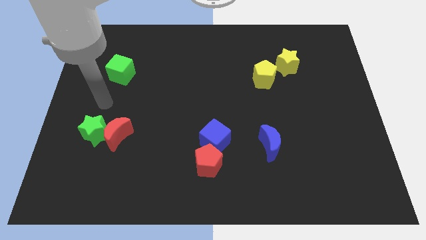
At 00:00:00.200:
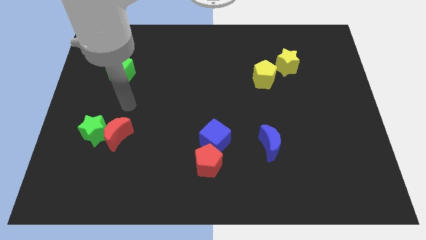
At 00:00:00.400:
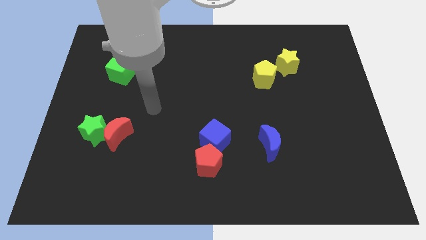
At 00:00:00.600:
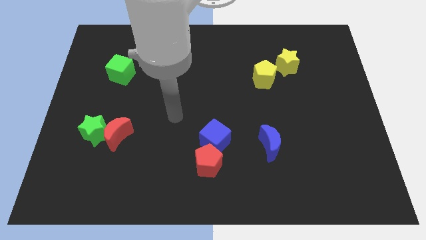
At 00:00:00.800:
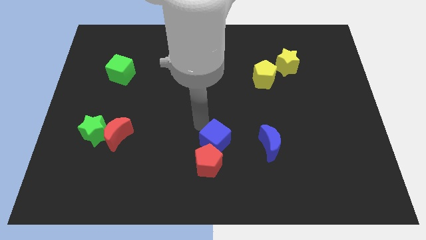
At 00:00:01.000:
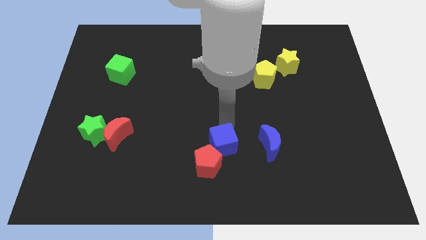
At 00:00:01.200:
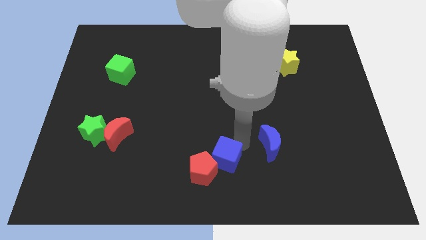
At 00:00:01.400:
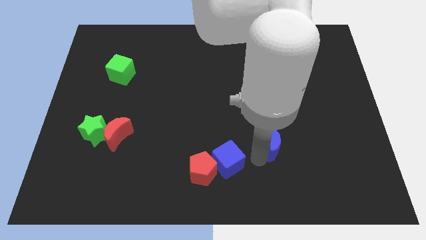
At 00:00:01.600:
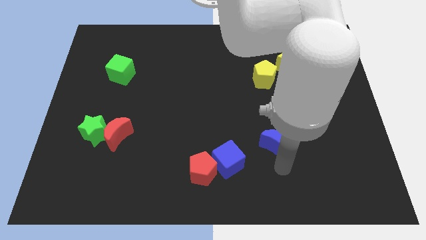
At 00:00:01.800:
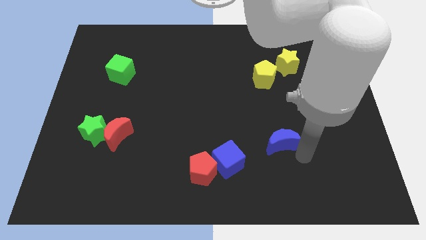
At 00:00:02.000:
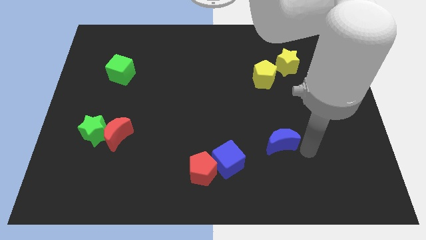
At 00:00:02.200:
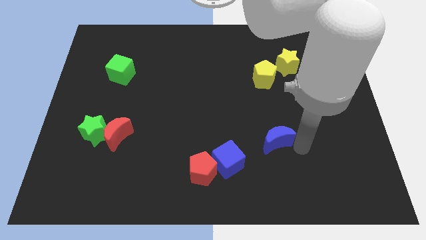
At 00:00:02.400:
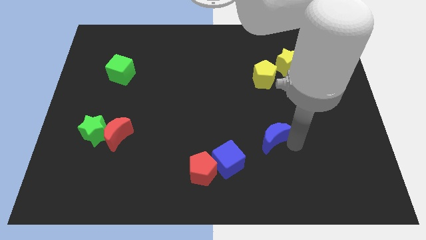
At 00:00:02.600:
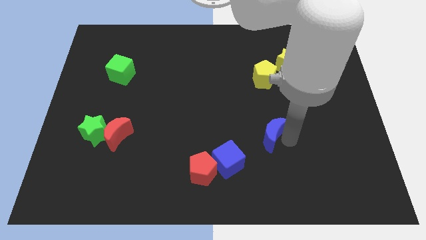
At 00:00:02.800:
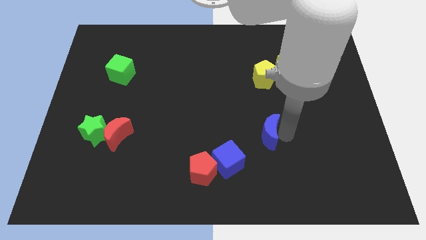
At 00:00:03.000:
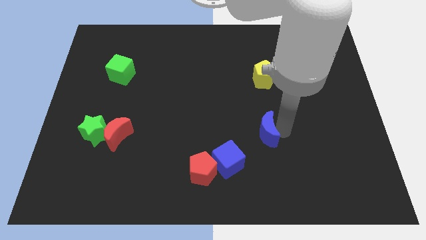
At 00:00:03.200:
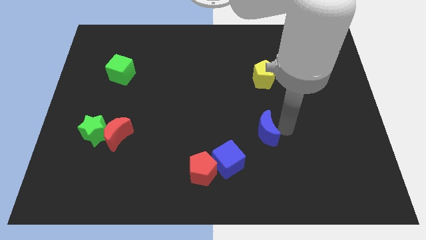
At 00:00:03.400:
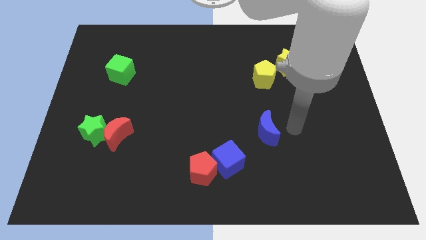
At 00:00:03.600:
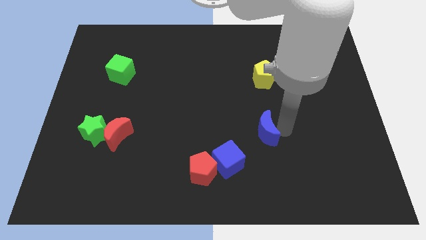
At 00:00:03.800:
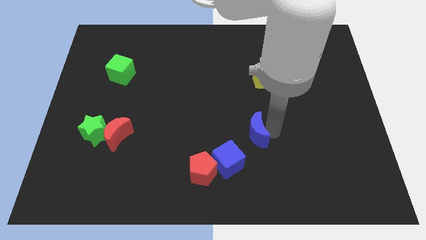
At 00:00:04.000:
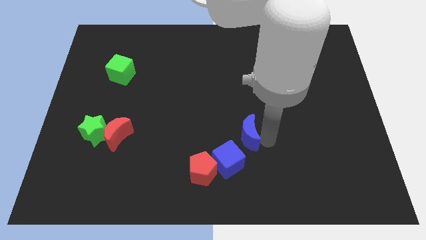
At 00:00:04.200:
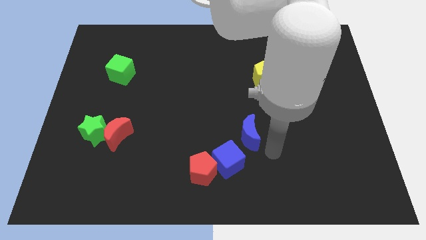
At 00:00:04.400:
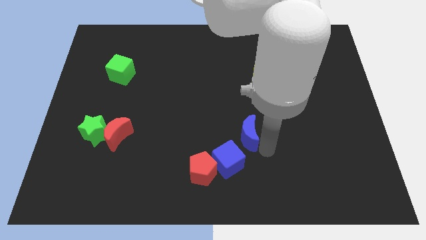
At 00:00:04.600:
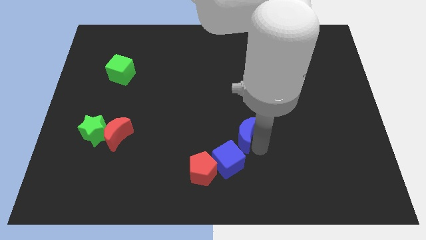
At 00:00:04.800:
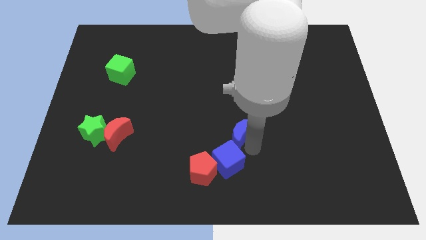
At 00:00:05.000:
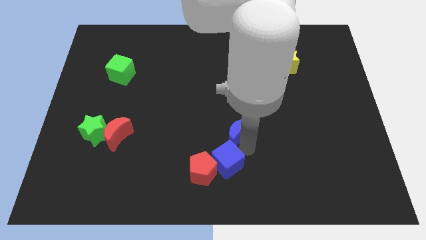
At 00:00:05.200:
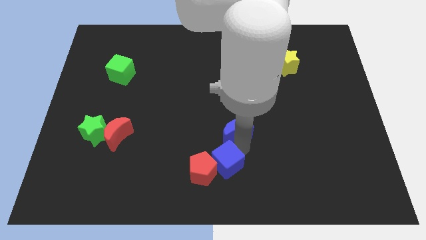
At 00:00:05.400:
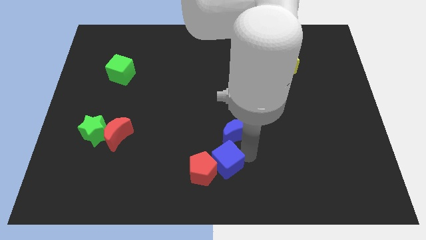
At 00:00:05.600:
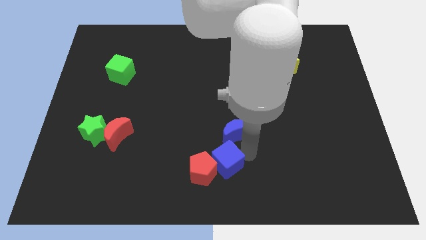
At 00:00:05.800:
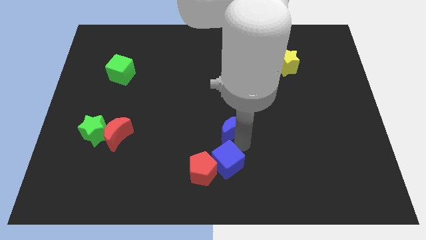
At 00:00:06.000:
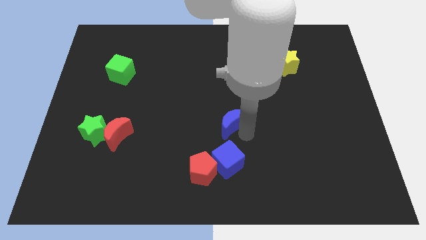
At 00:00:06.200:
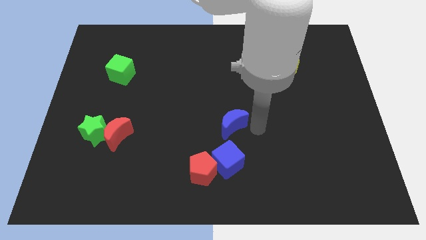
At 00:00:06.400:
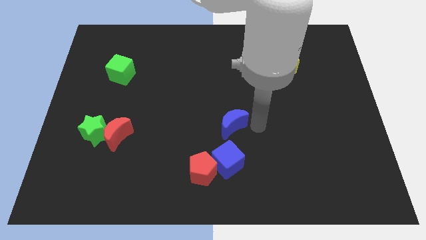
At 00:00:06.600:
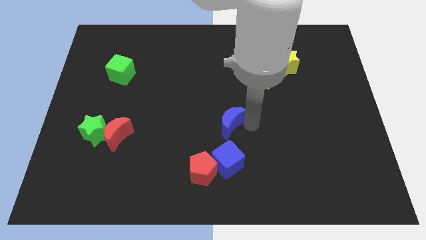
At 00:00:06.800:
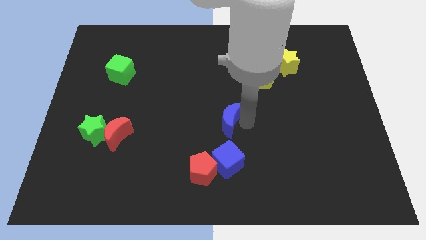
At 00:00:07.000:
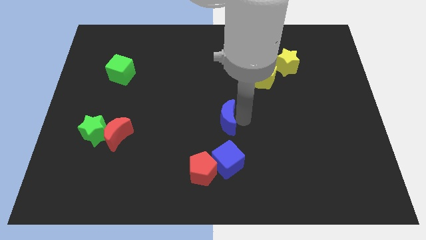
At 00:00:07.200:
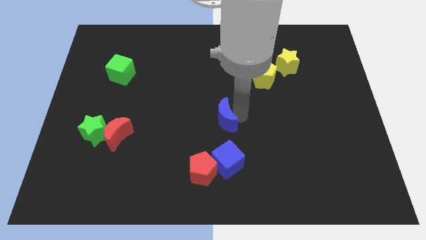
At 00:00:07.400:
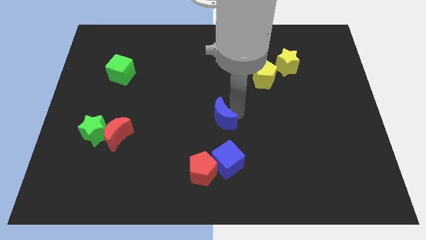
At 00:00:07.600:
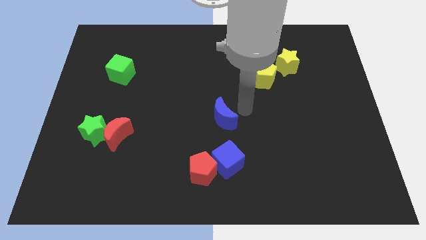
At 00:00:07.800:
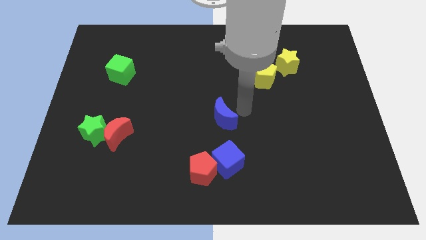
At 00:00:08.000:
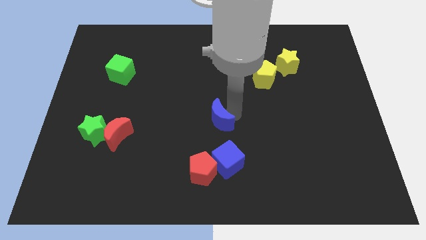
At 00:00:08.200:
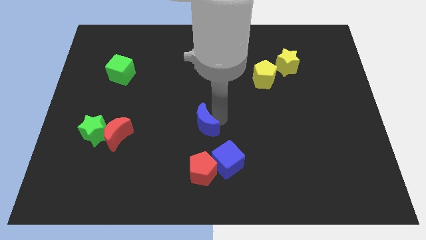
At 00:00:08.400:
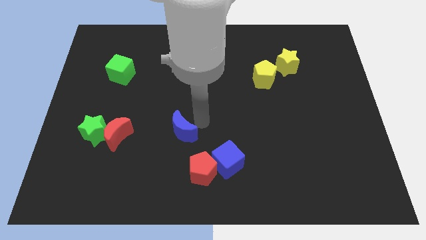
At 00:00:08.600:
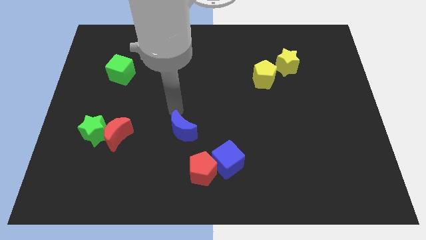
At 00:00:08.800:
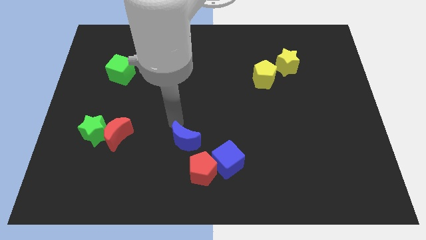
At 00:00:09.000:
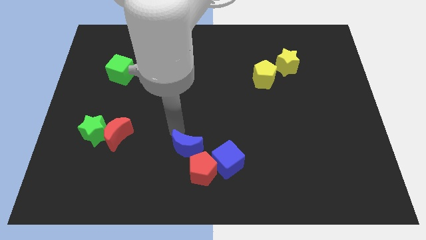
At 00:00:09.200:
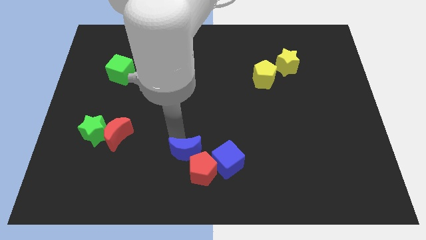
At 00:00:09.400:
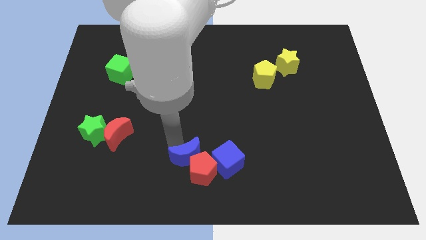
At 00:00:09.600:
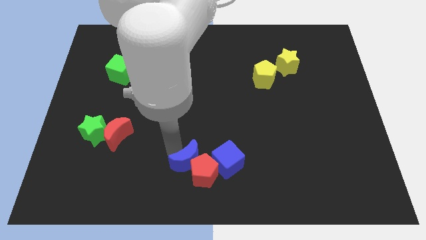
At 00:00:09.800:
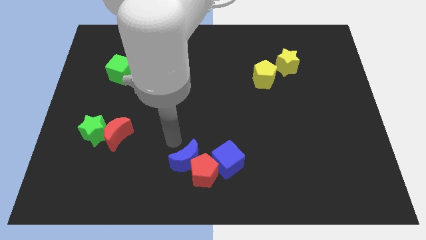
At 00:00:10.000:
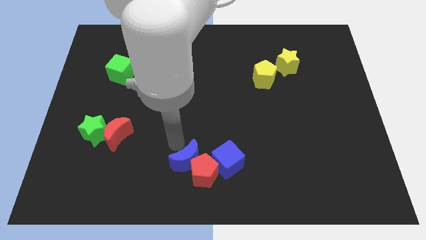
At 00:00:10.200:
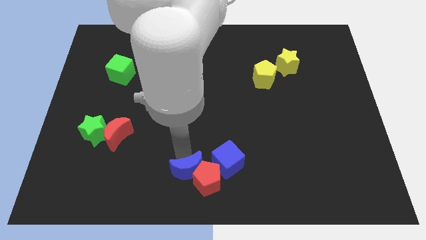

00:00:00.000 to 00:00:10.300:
push the blue moon to the bottom left of the blue cube

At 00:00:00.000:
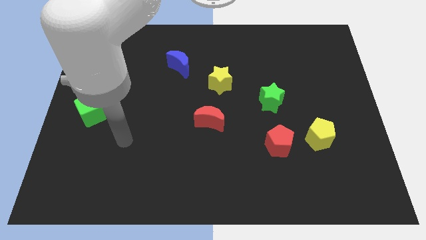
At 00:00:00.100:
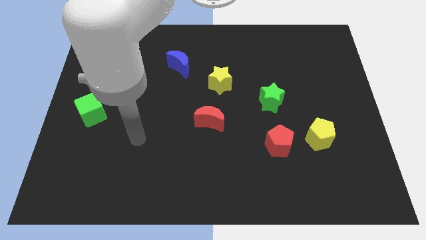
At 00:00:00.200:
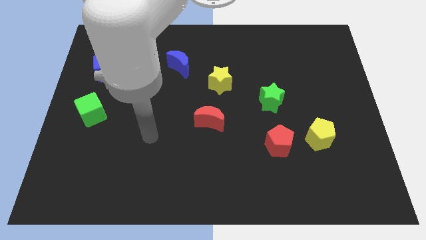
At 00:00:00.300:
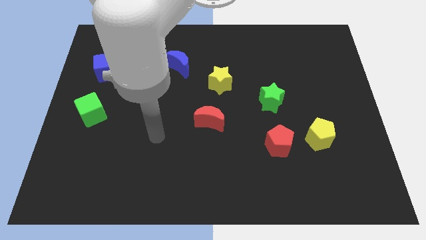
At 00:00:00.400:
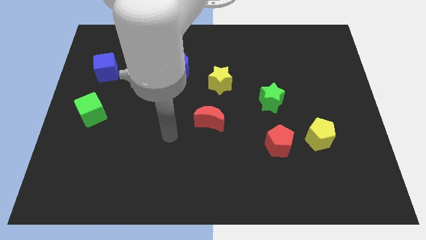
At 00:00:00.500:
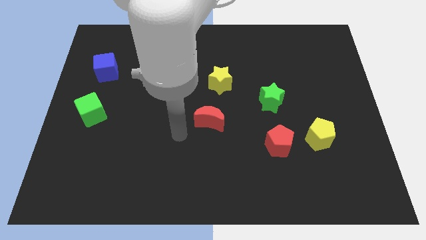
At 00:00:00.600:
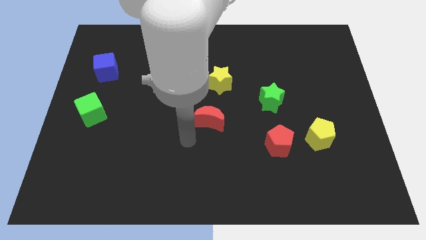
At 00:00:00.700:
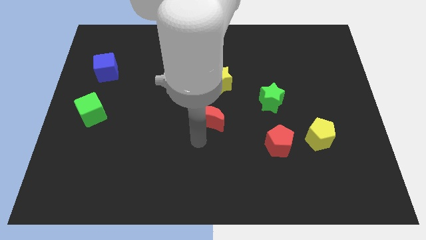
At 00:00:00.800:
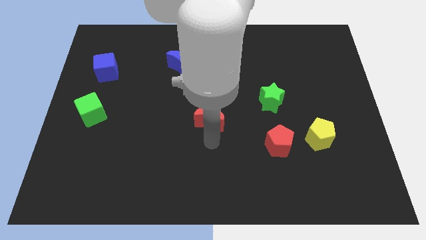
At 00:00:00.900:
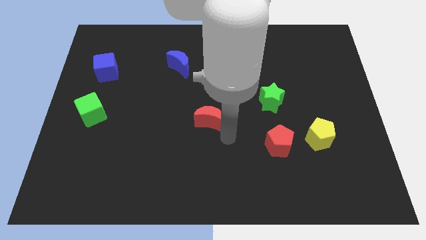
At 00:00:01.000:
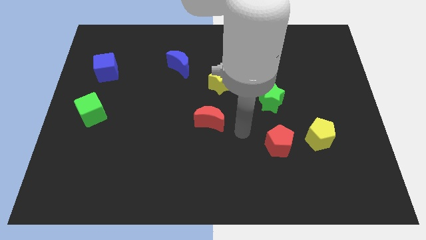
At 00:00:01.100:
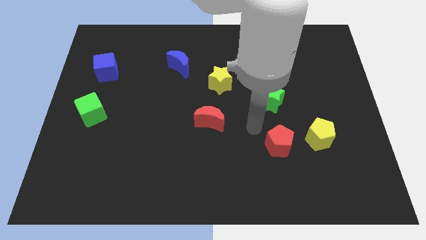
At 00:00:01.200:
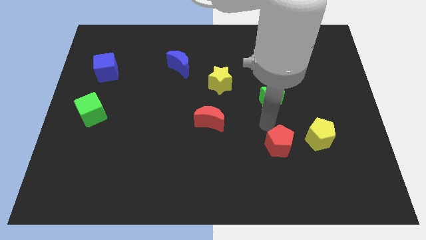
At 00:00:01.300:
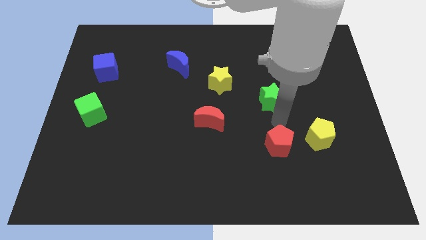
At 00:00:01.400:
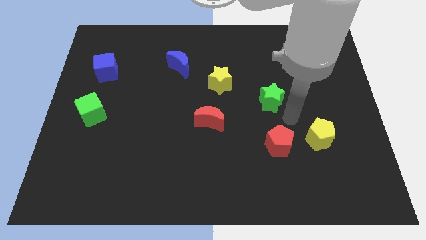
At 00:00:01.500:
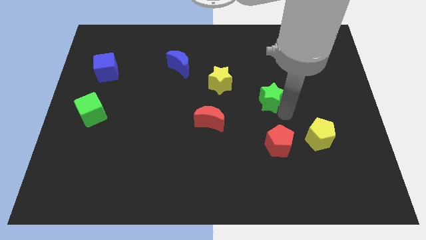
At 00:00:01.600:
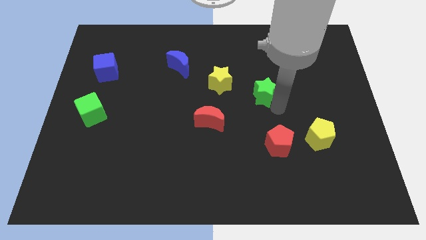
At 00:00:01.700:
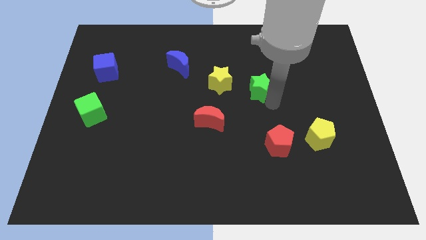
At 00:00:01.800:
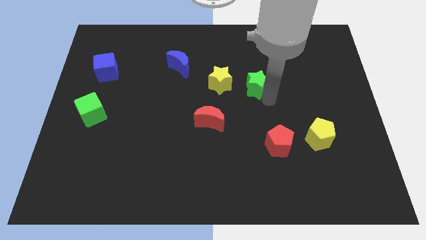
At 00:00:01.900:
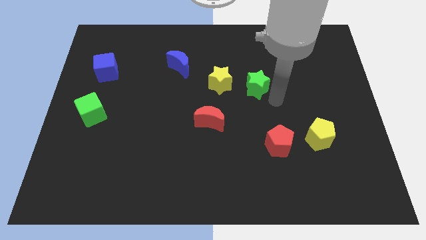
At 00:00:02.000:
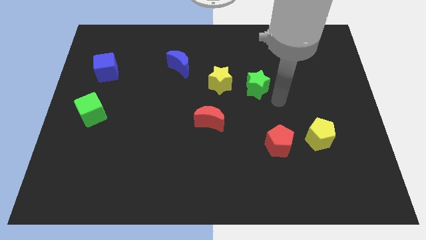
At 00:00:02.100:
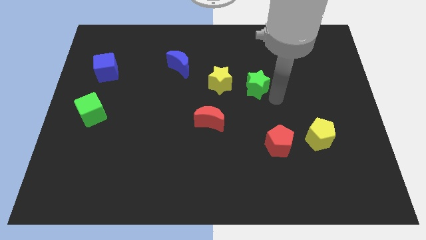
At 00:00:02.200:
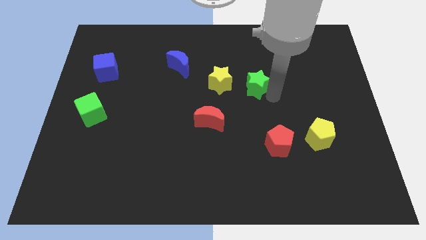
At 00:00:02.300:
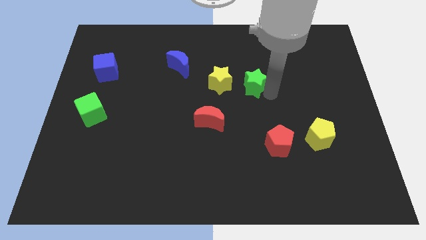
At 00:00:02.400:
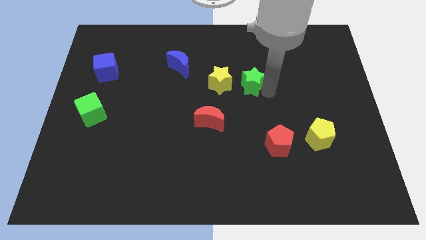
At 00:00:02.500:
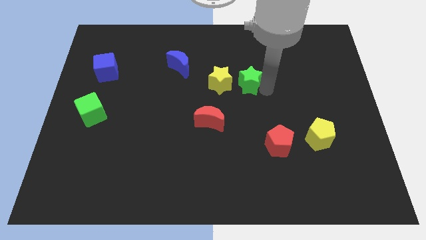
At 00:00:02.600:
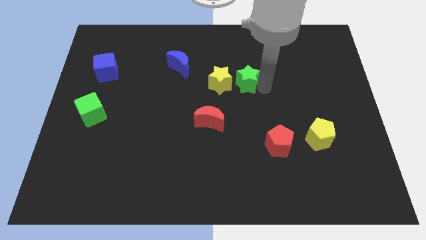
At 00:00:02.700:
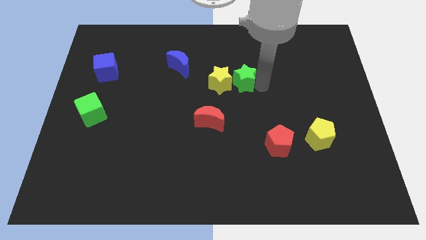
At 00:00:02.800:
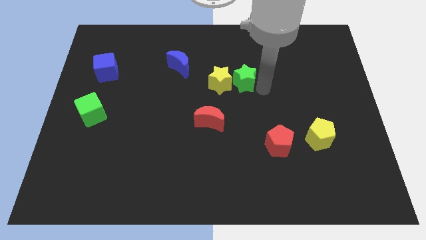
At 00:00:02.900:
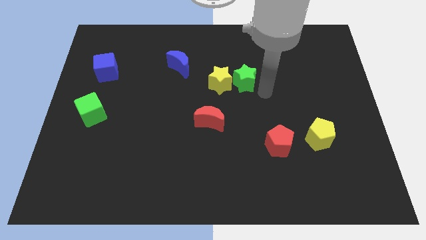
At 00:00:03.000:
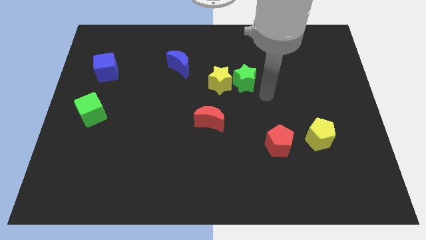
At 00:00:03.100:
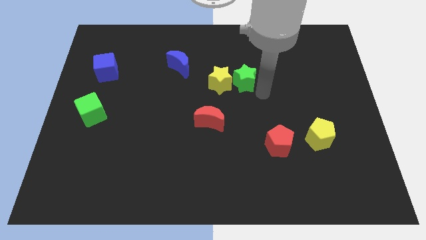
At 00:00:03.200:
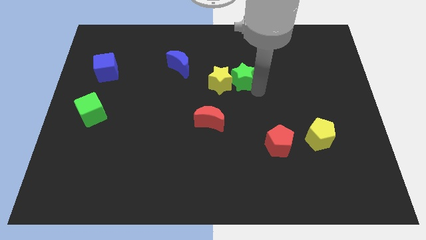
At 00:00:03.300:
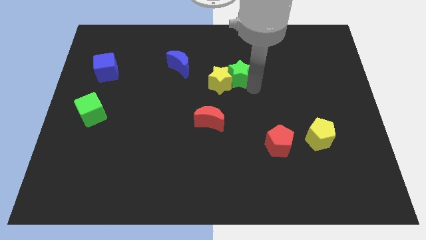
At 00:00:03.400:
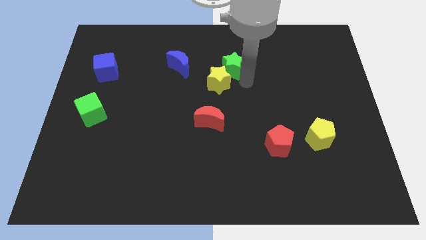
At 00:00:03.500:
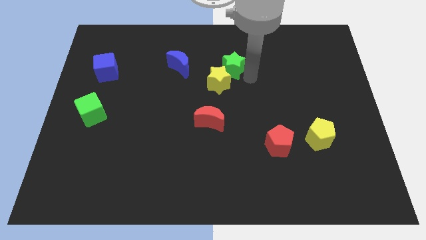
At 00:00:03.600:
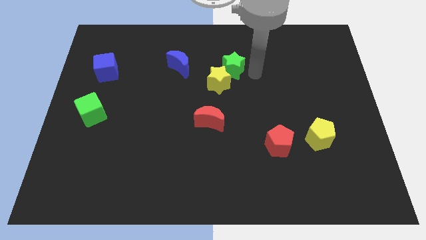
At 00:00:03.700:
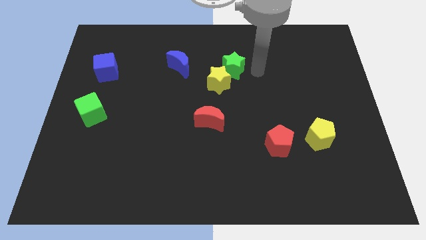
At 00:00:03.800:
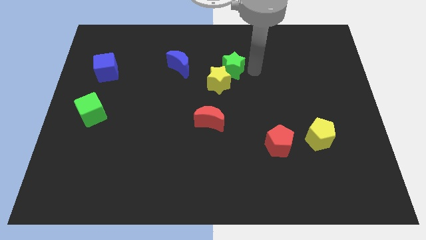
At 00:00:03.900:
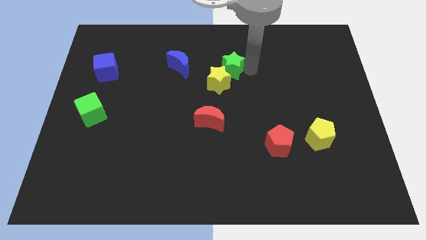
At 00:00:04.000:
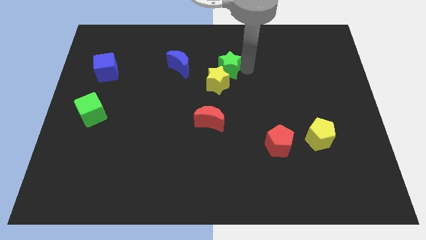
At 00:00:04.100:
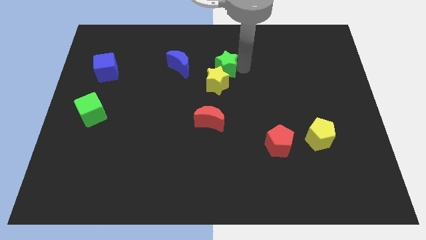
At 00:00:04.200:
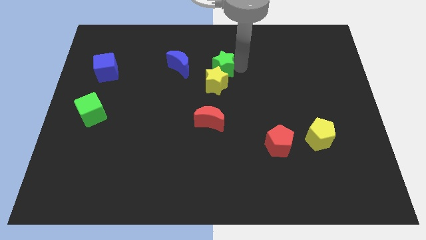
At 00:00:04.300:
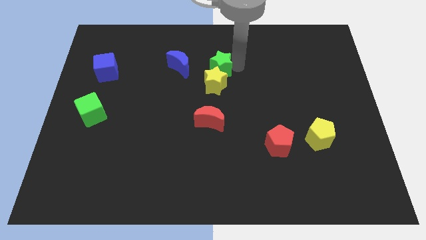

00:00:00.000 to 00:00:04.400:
put the green star diagonally up and to the left of the yellow star
